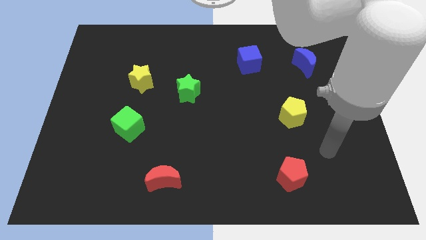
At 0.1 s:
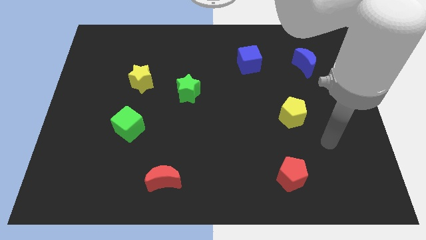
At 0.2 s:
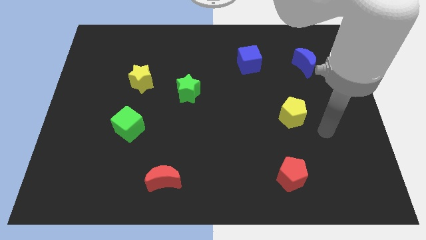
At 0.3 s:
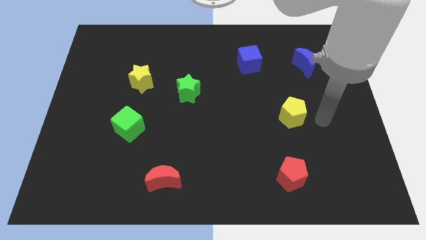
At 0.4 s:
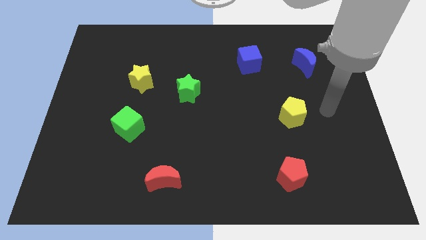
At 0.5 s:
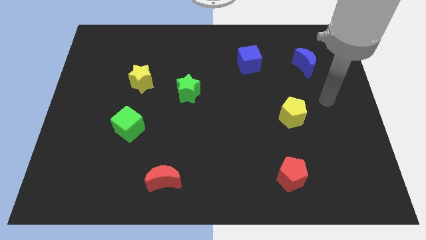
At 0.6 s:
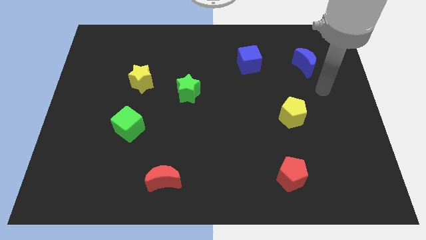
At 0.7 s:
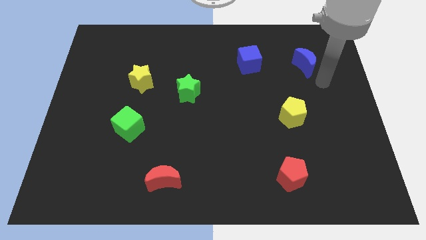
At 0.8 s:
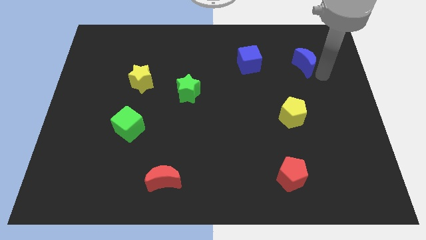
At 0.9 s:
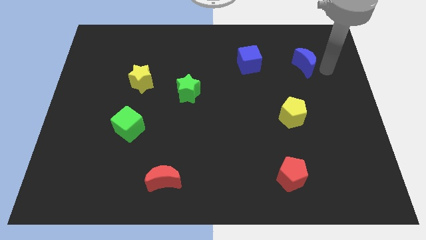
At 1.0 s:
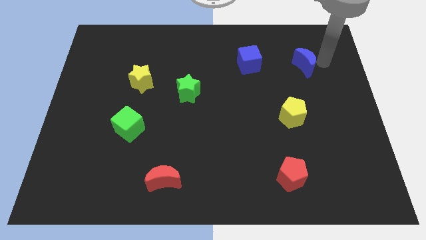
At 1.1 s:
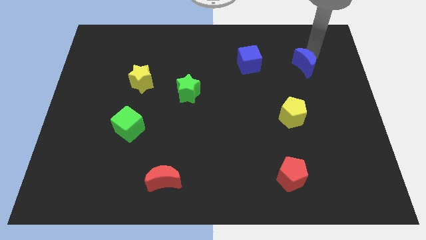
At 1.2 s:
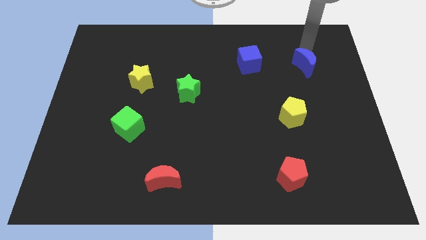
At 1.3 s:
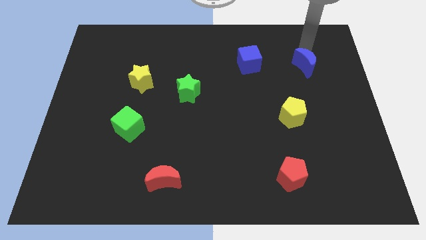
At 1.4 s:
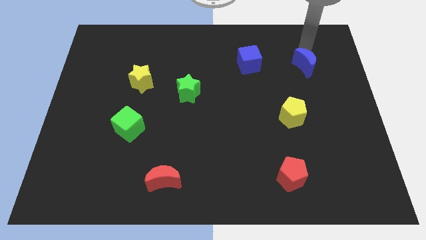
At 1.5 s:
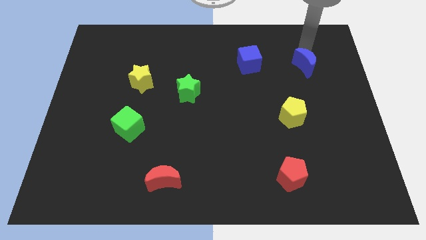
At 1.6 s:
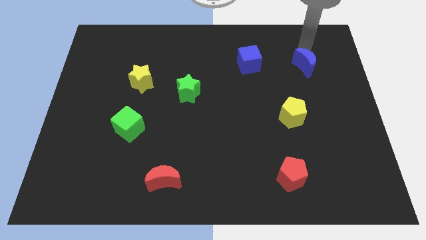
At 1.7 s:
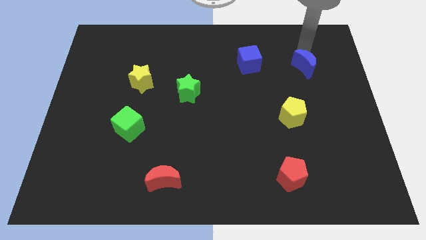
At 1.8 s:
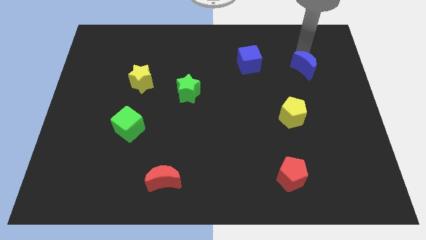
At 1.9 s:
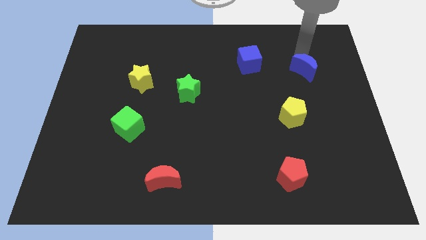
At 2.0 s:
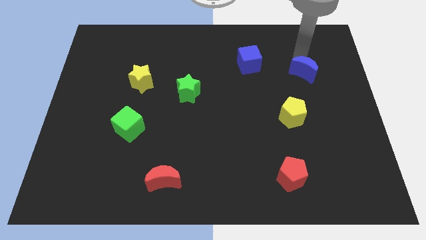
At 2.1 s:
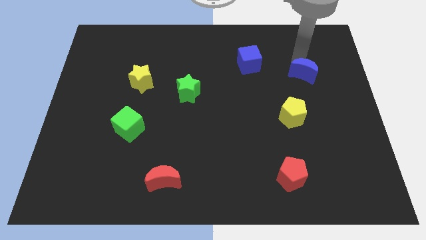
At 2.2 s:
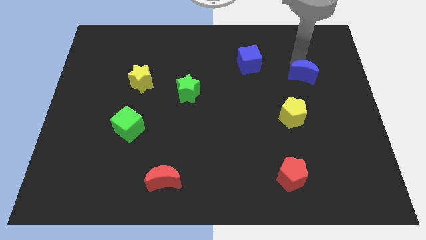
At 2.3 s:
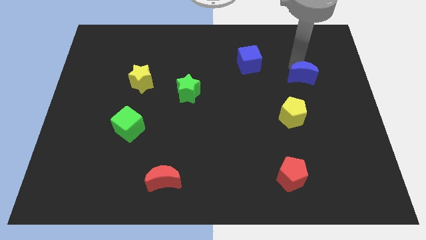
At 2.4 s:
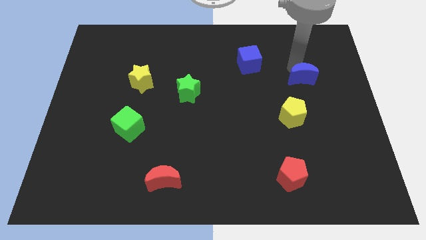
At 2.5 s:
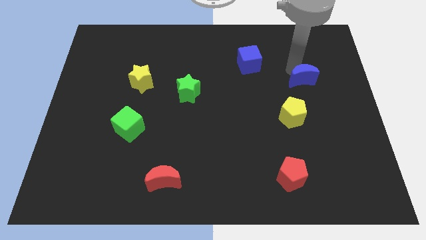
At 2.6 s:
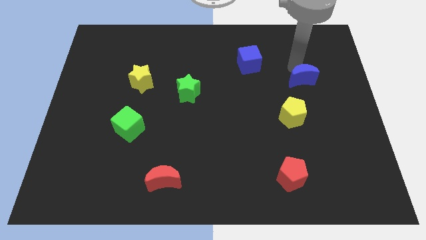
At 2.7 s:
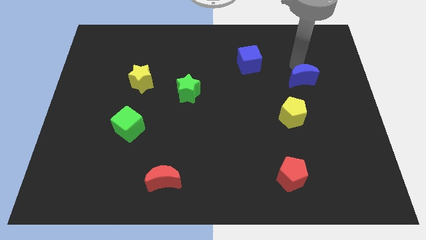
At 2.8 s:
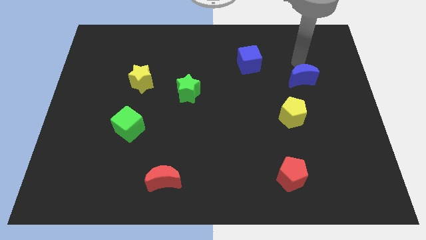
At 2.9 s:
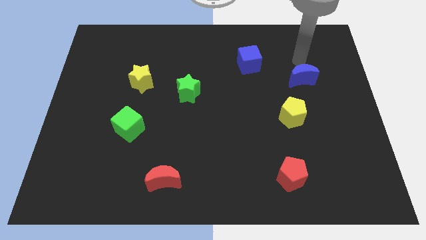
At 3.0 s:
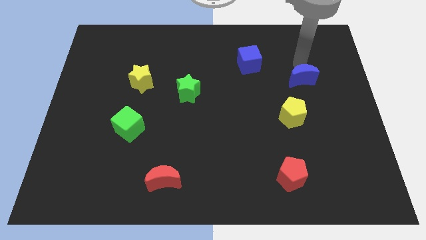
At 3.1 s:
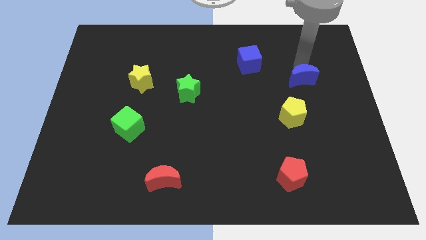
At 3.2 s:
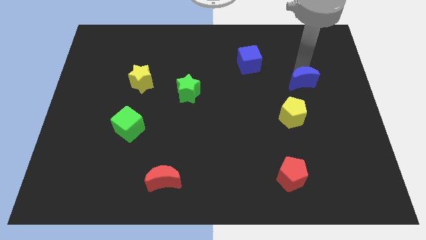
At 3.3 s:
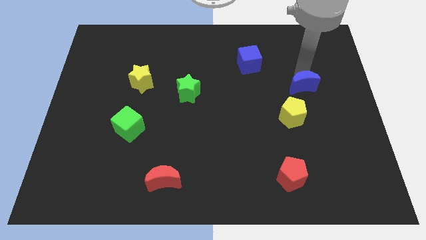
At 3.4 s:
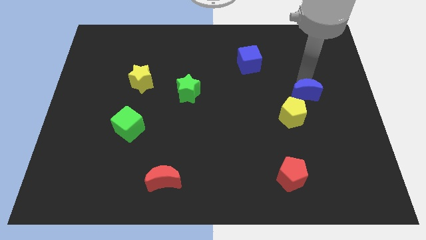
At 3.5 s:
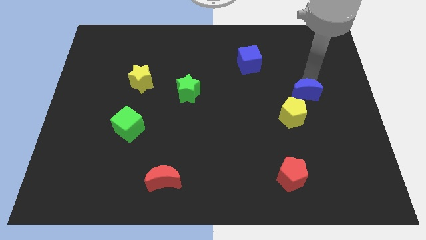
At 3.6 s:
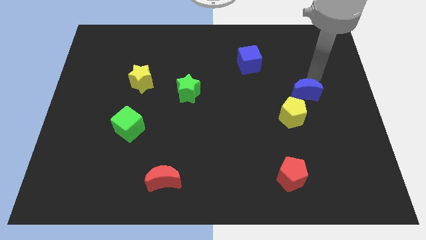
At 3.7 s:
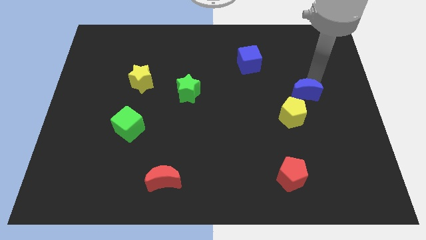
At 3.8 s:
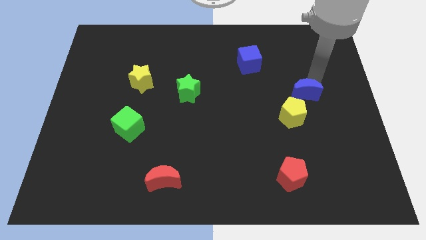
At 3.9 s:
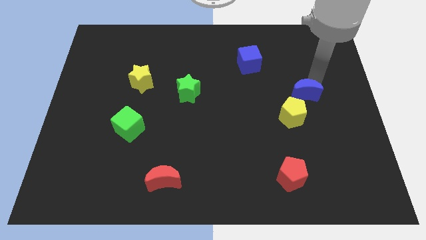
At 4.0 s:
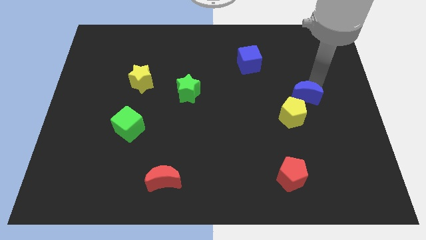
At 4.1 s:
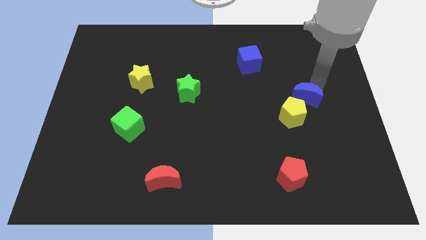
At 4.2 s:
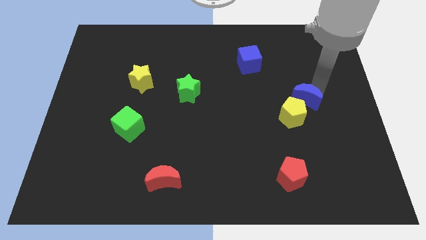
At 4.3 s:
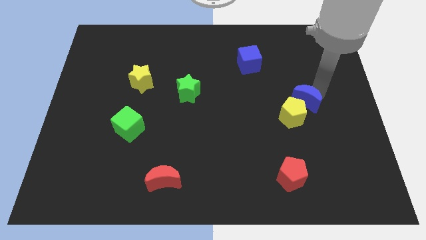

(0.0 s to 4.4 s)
move the blue moon close to the yellow pentagon

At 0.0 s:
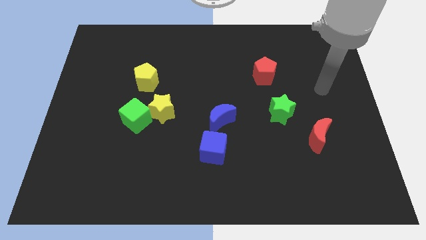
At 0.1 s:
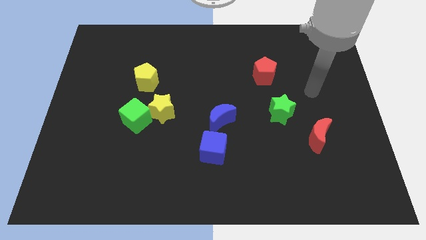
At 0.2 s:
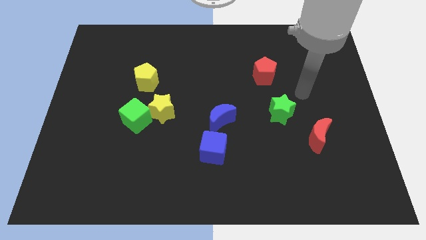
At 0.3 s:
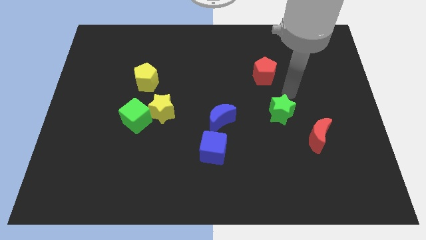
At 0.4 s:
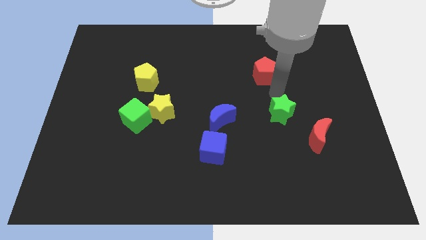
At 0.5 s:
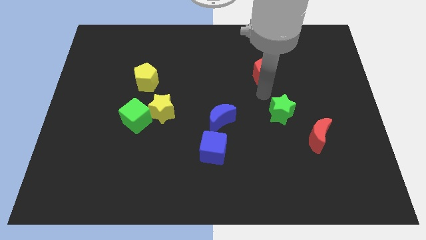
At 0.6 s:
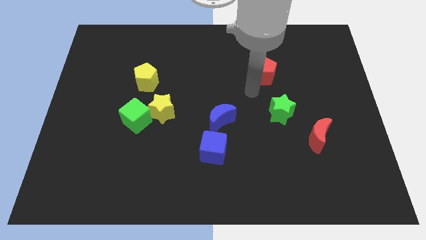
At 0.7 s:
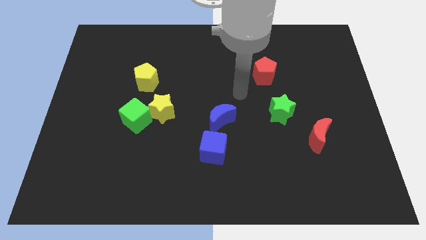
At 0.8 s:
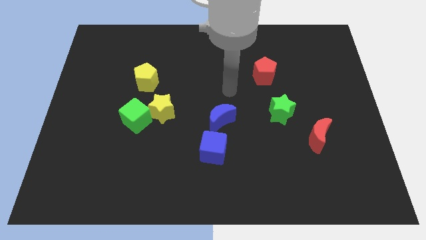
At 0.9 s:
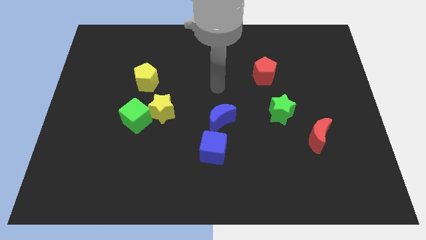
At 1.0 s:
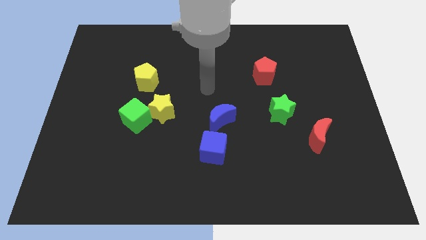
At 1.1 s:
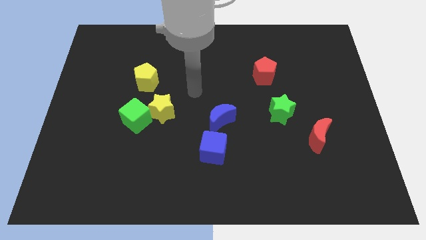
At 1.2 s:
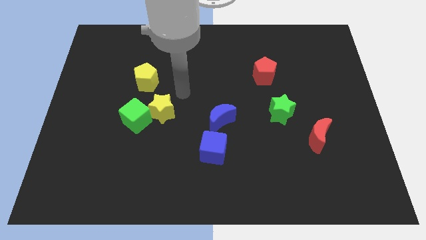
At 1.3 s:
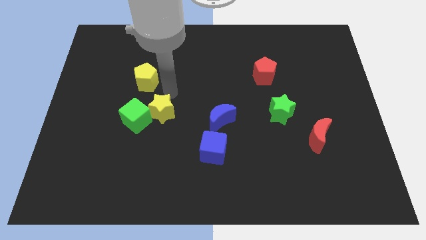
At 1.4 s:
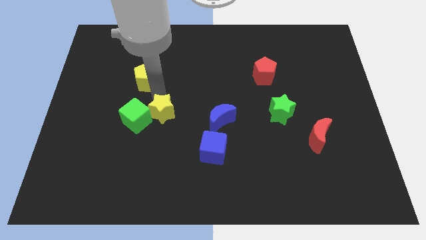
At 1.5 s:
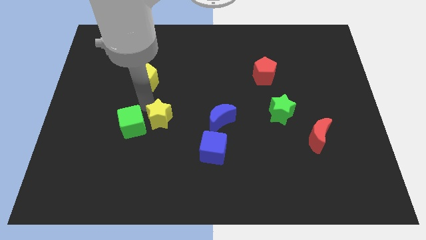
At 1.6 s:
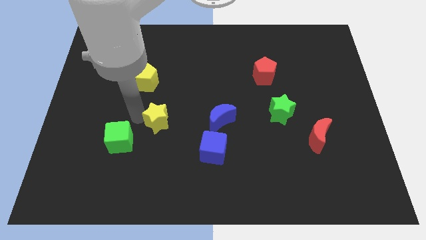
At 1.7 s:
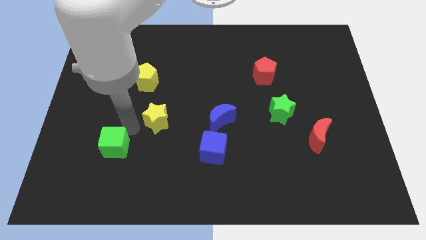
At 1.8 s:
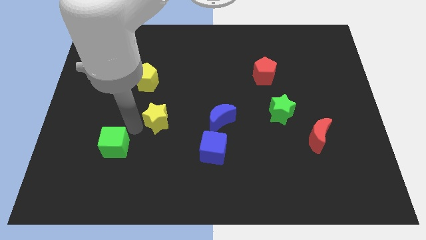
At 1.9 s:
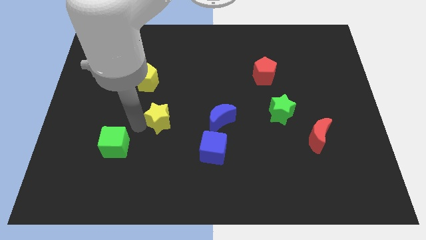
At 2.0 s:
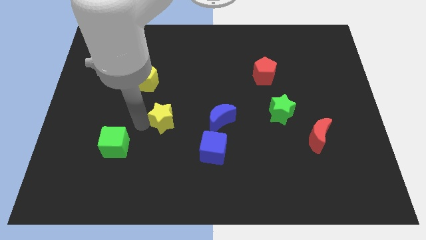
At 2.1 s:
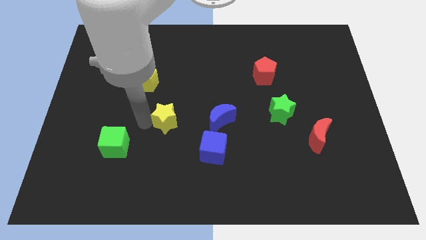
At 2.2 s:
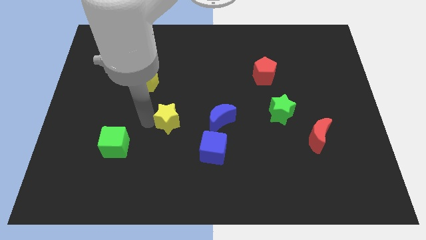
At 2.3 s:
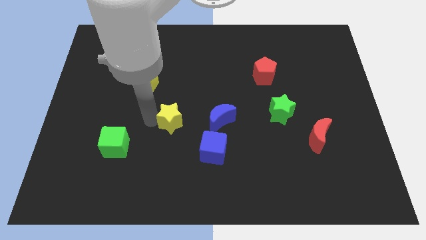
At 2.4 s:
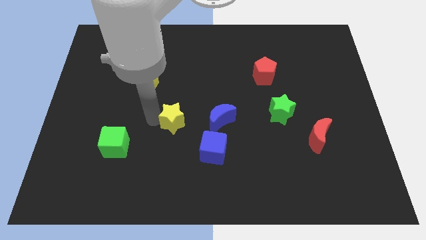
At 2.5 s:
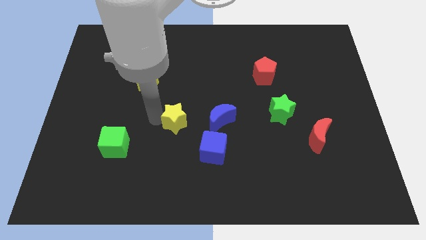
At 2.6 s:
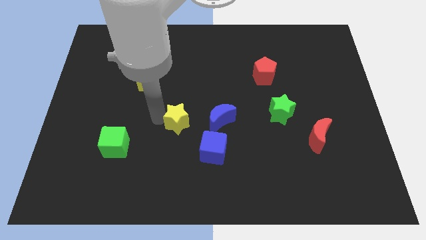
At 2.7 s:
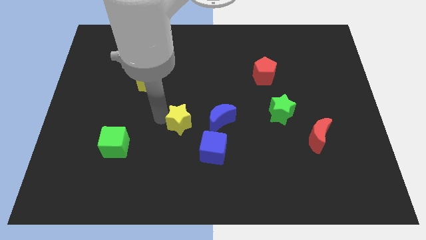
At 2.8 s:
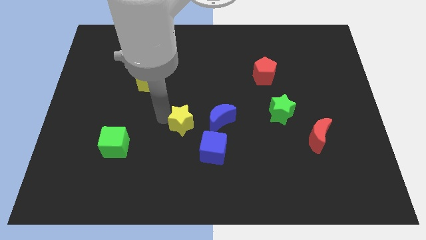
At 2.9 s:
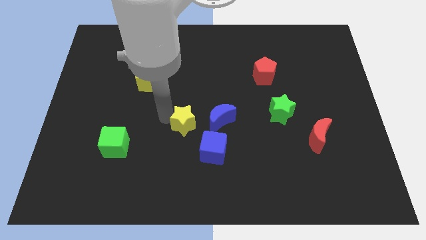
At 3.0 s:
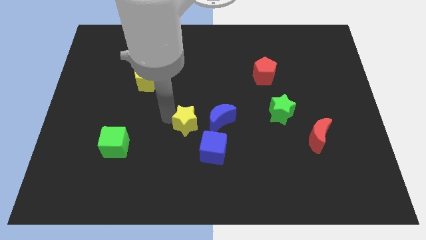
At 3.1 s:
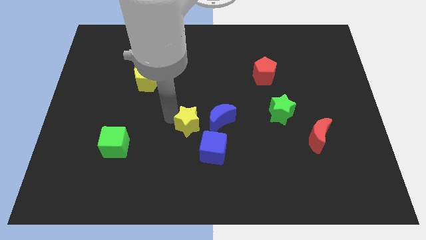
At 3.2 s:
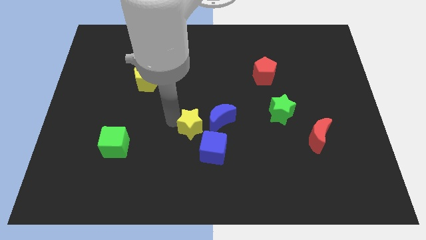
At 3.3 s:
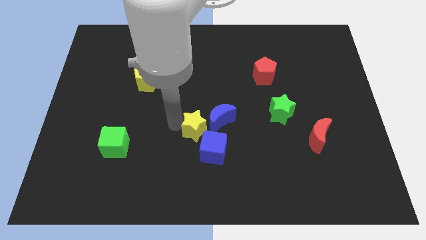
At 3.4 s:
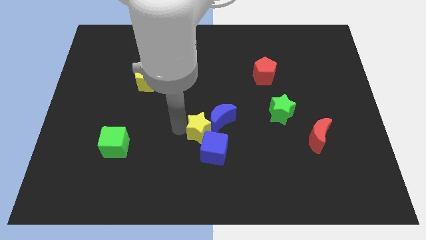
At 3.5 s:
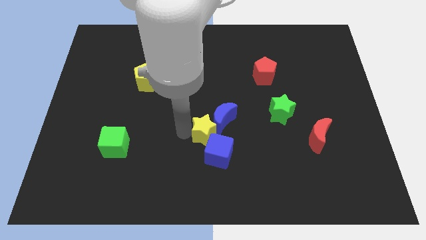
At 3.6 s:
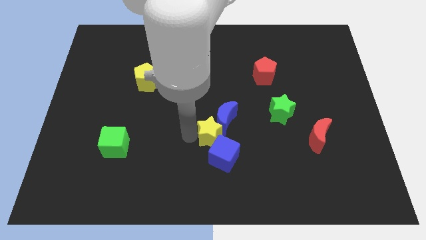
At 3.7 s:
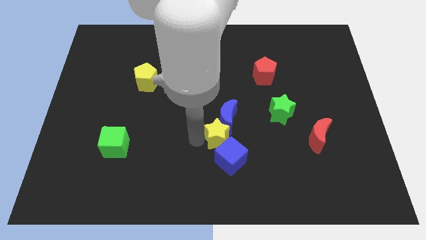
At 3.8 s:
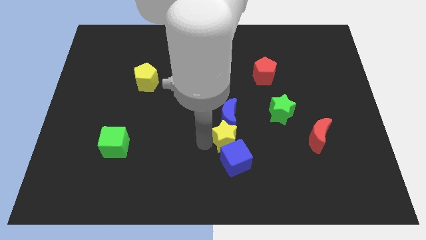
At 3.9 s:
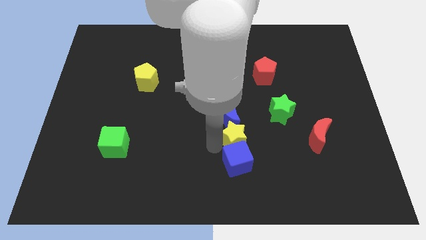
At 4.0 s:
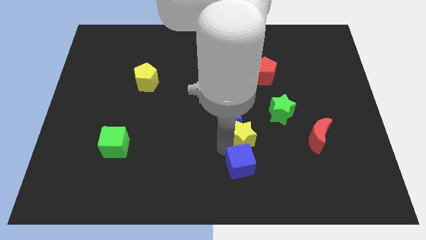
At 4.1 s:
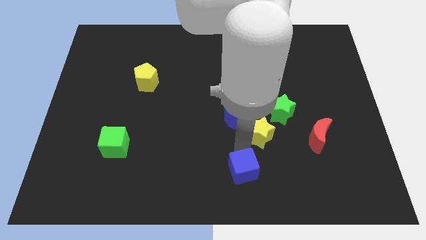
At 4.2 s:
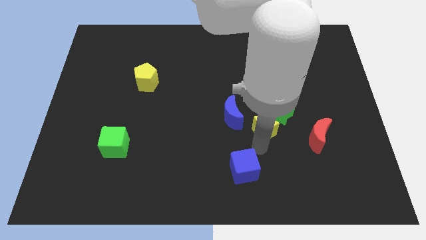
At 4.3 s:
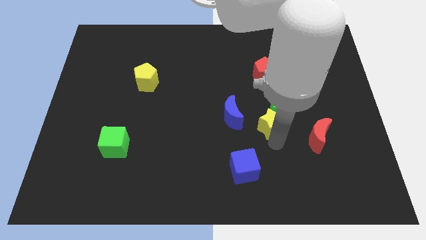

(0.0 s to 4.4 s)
put the yellow star next to the green star
